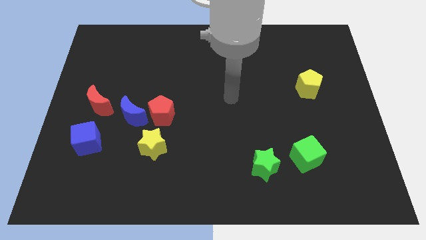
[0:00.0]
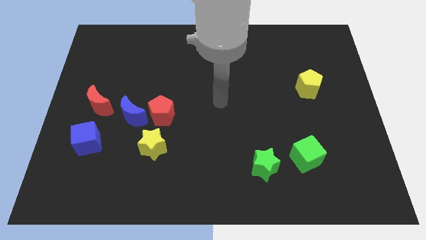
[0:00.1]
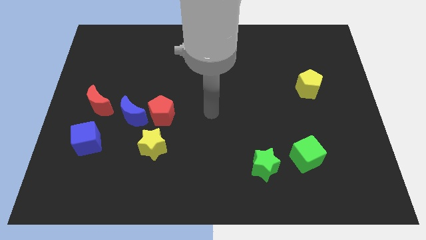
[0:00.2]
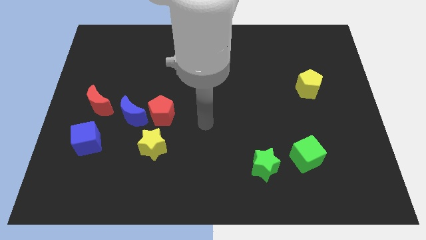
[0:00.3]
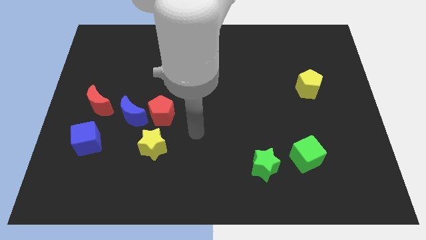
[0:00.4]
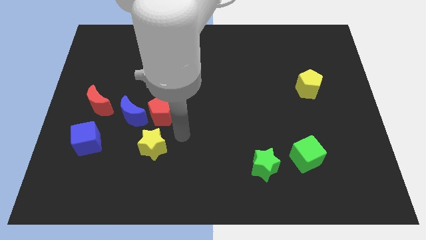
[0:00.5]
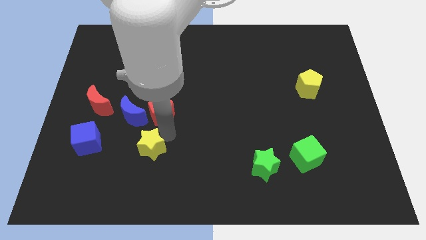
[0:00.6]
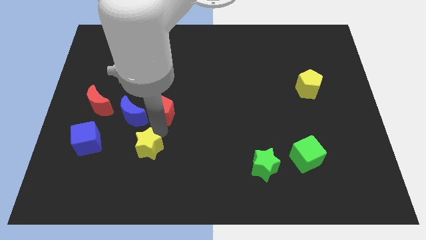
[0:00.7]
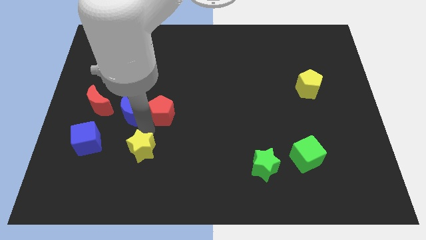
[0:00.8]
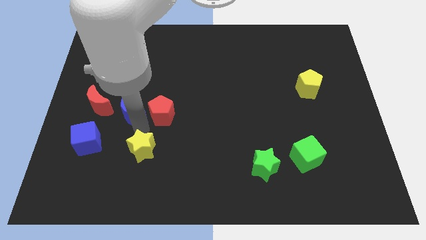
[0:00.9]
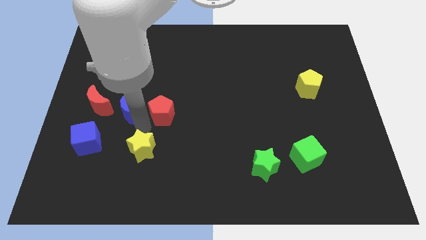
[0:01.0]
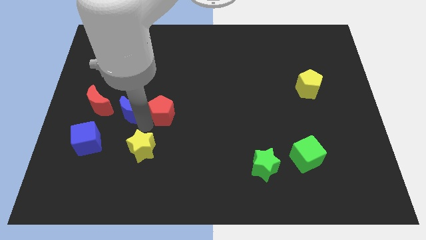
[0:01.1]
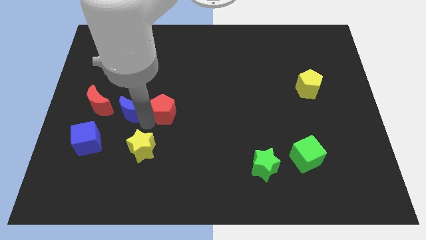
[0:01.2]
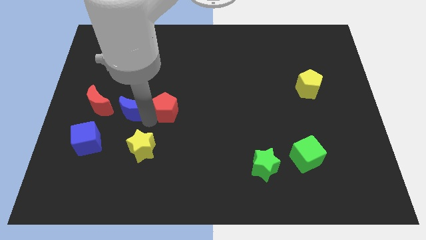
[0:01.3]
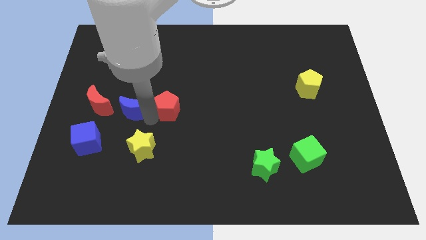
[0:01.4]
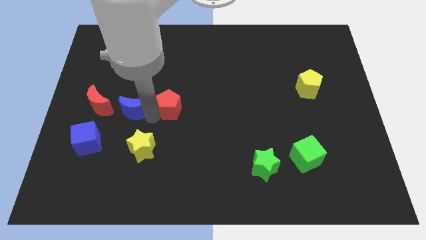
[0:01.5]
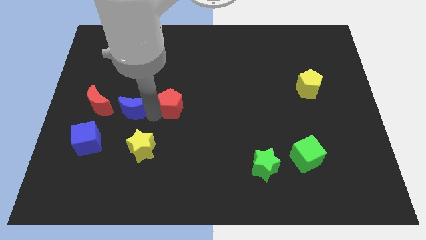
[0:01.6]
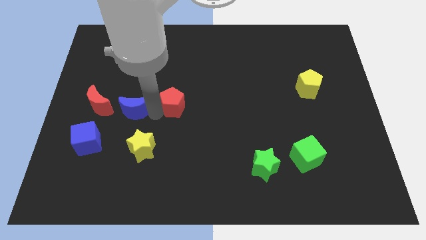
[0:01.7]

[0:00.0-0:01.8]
move the red pentagon away from the blue moon and yellow star

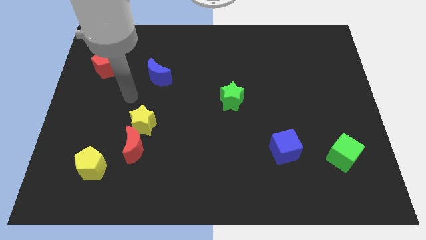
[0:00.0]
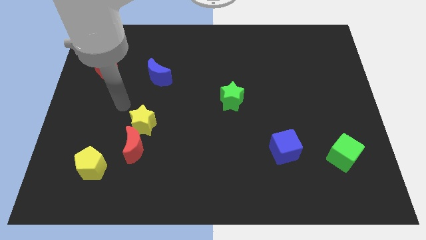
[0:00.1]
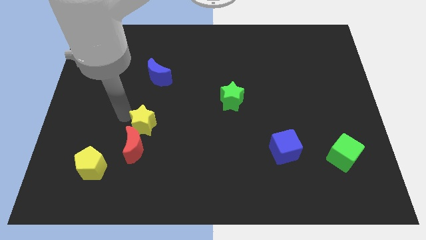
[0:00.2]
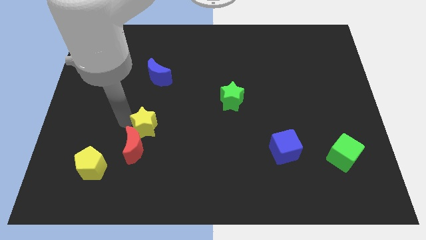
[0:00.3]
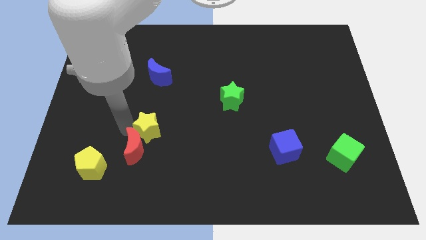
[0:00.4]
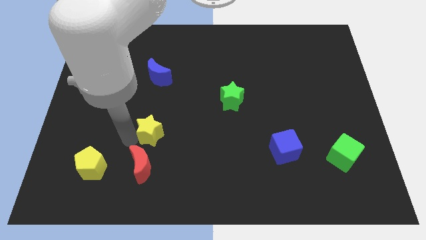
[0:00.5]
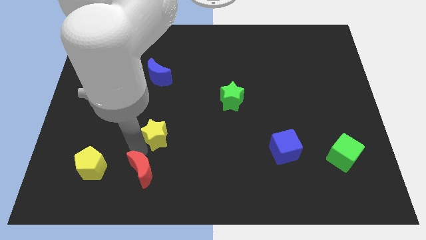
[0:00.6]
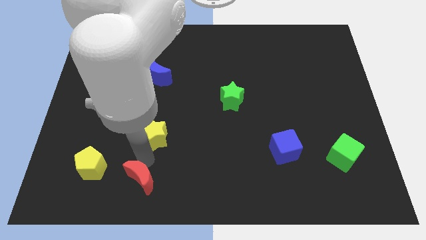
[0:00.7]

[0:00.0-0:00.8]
pull the yellow star apart from the red moon

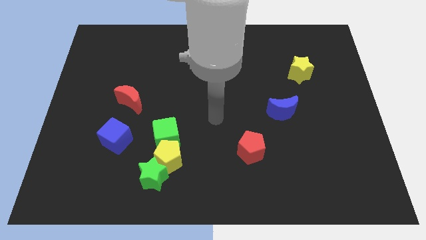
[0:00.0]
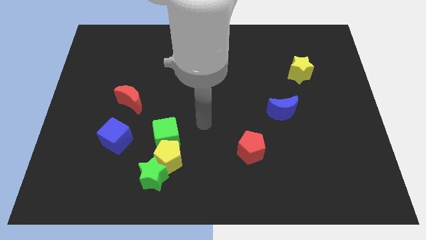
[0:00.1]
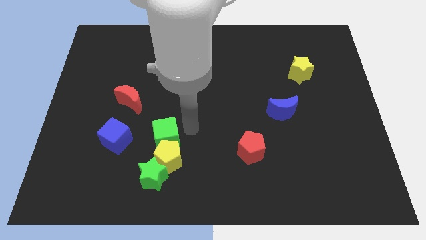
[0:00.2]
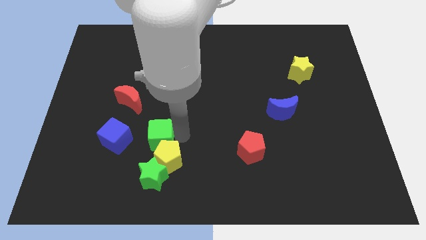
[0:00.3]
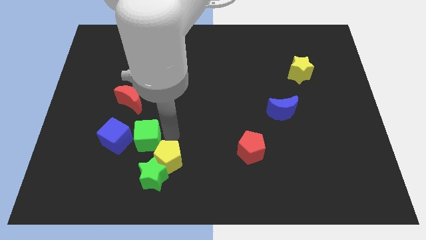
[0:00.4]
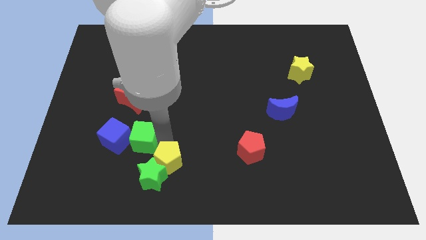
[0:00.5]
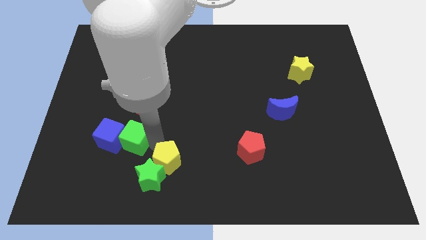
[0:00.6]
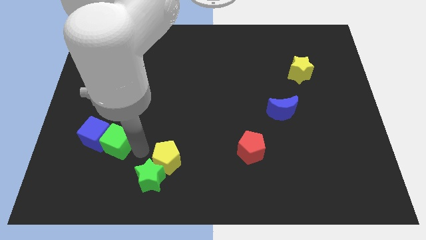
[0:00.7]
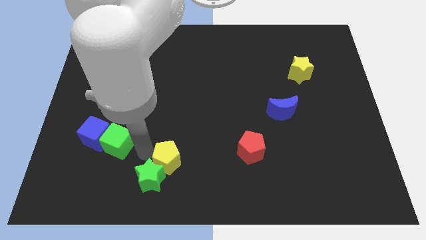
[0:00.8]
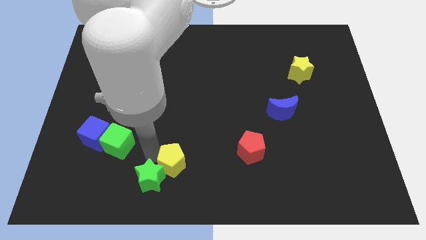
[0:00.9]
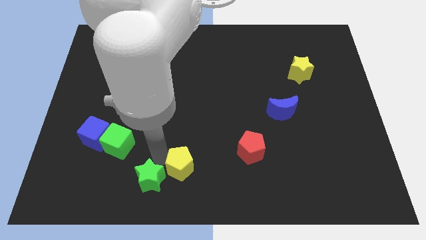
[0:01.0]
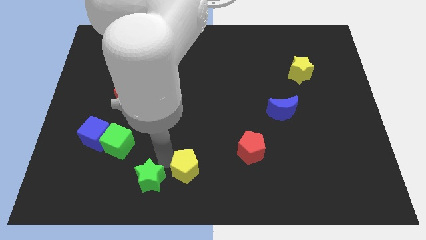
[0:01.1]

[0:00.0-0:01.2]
move the yellow pentagon away from the green star and green cube

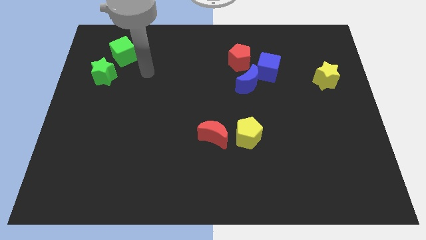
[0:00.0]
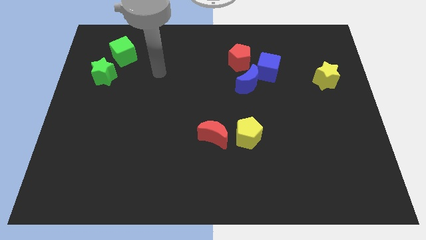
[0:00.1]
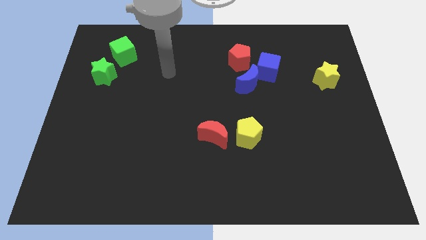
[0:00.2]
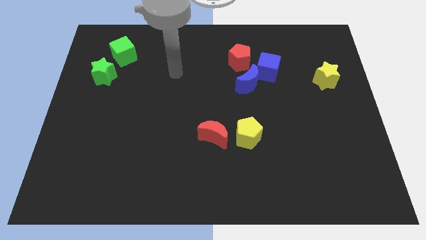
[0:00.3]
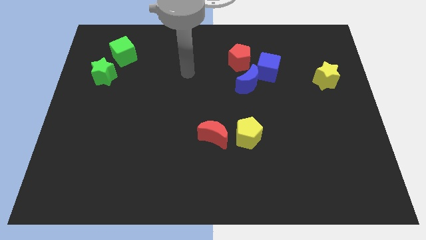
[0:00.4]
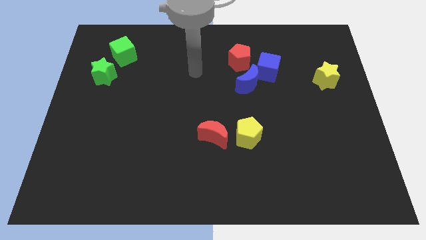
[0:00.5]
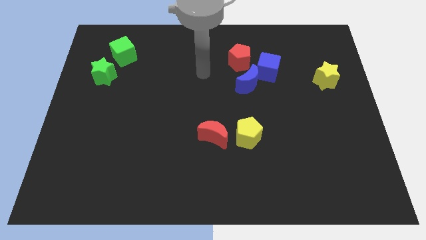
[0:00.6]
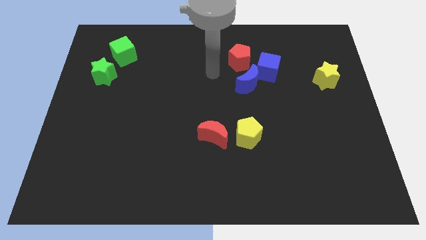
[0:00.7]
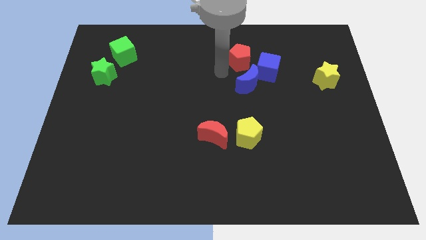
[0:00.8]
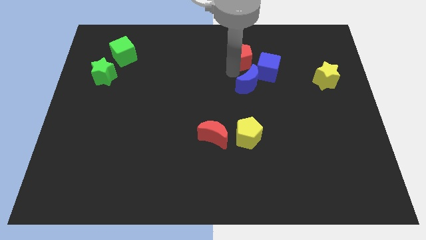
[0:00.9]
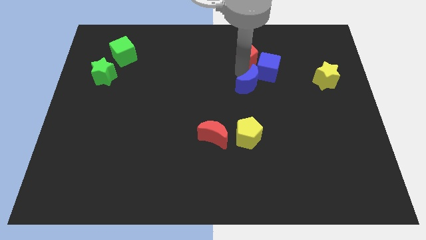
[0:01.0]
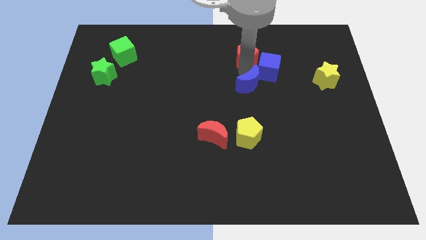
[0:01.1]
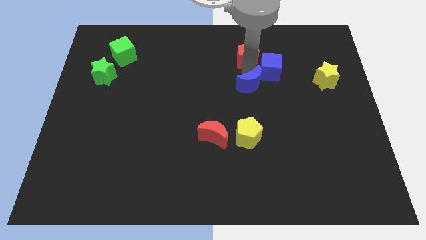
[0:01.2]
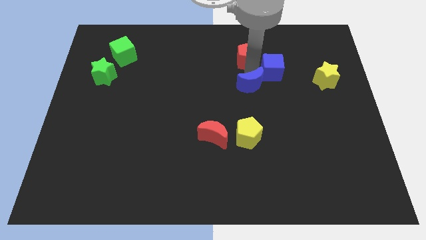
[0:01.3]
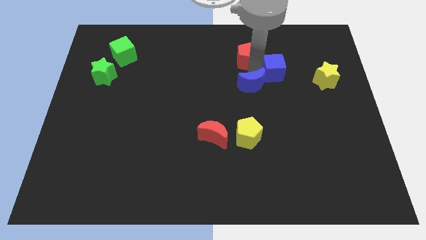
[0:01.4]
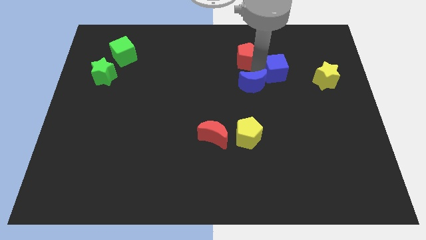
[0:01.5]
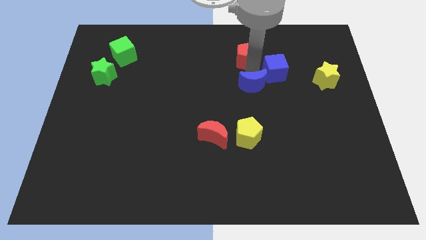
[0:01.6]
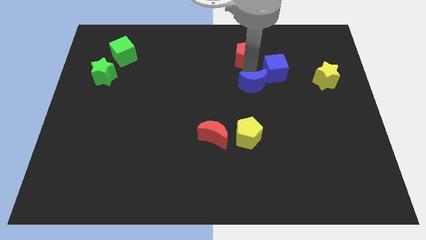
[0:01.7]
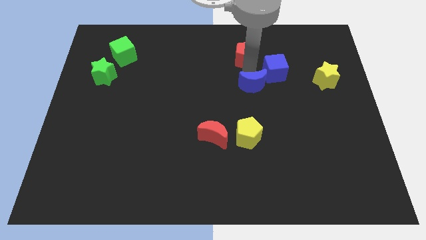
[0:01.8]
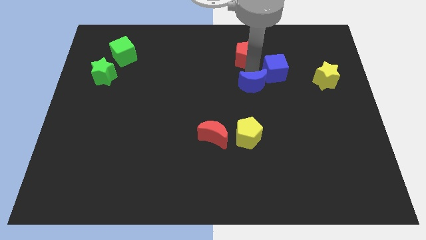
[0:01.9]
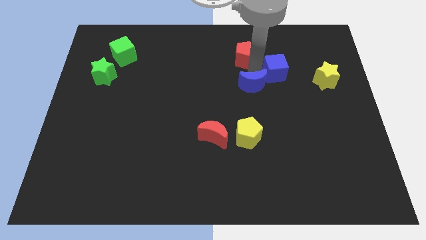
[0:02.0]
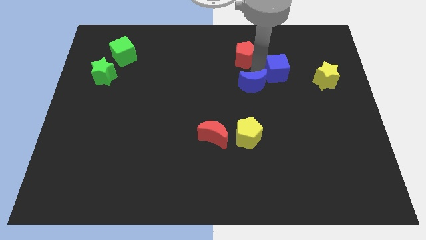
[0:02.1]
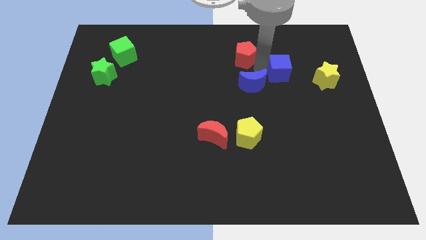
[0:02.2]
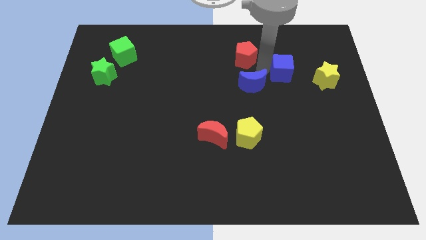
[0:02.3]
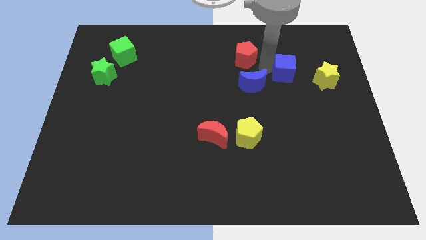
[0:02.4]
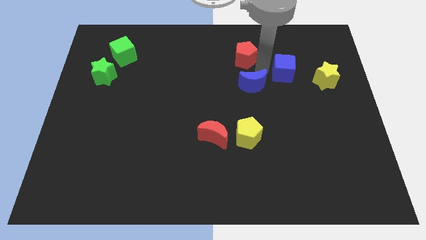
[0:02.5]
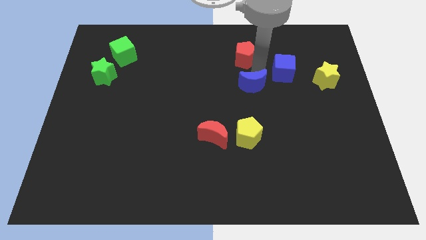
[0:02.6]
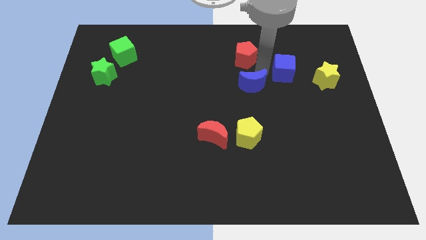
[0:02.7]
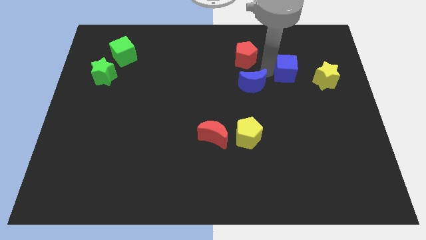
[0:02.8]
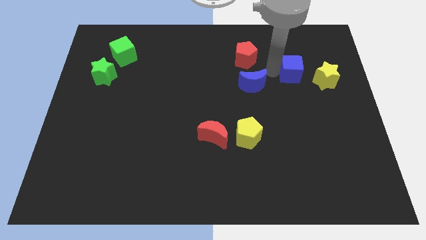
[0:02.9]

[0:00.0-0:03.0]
pull the blue cube apart from the blue moon and red pentagon

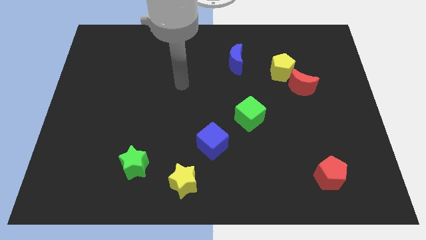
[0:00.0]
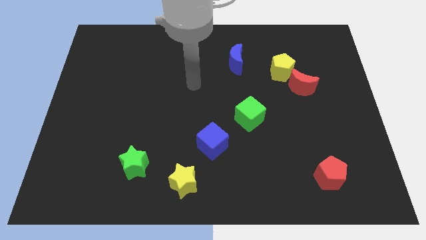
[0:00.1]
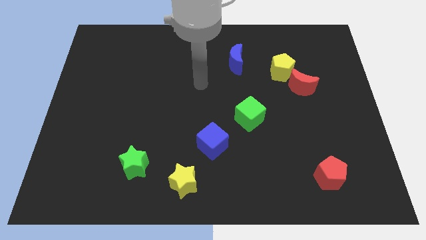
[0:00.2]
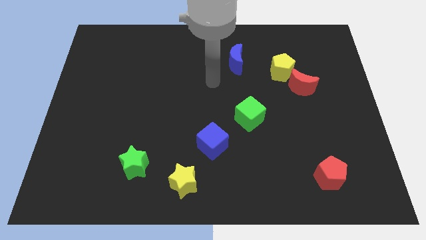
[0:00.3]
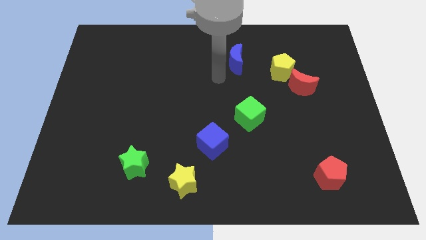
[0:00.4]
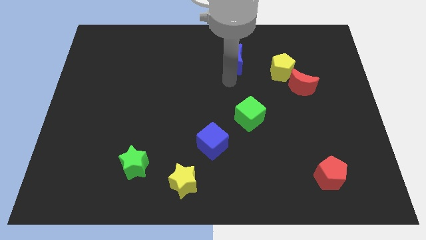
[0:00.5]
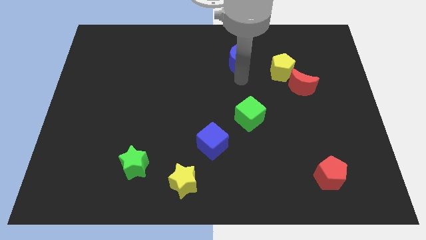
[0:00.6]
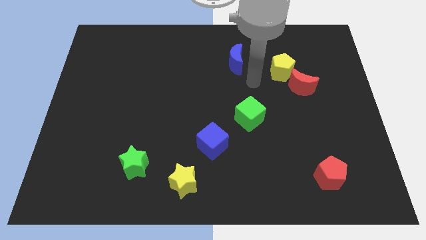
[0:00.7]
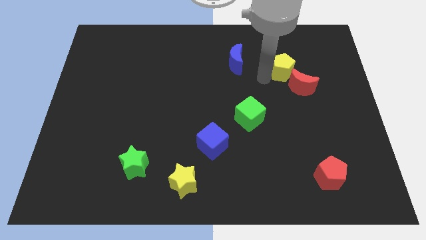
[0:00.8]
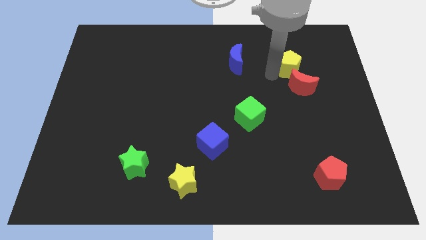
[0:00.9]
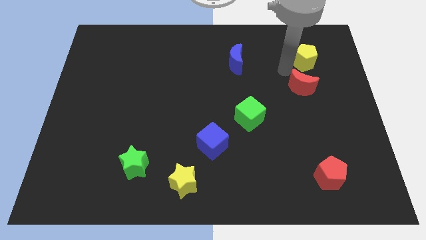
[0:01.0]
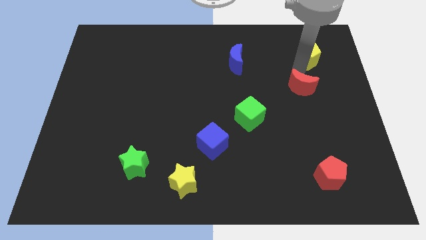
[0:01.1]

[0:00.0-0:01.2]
pull the red moon apart from the yellow pentagon

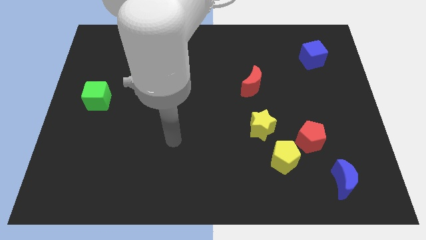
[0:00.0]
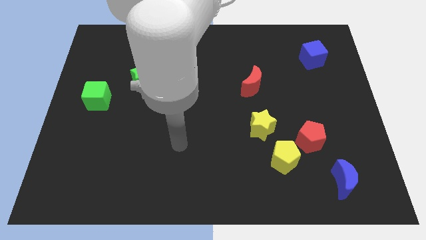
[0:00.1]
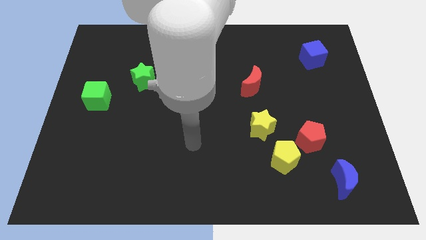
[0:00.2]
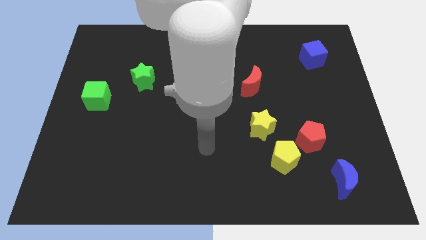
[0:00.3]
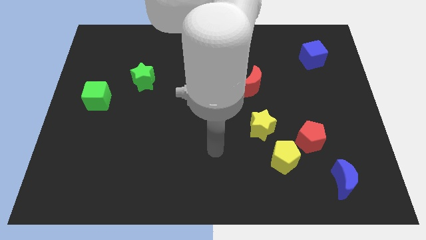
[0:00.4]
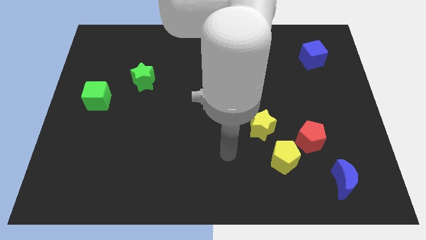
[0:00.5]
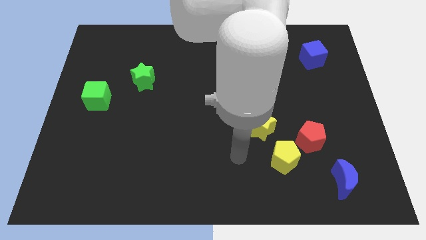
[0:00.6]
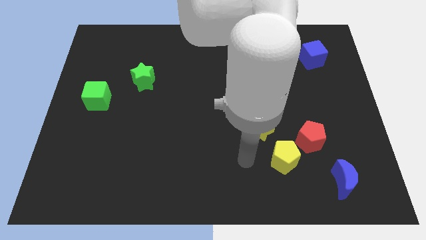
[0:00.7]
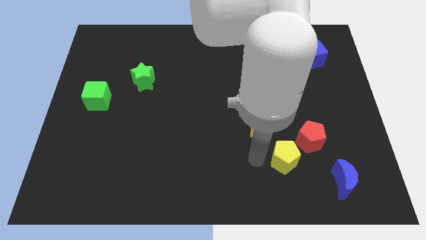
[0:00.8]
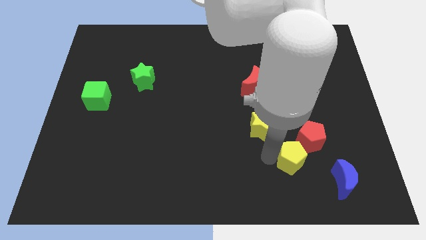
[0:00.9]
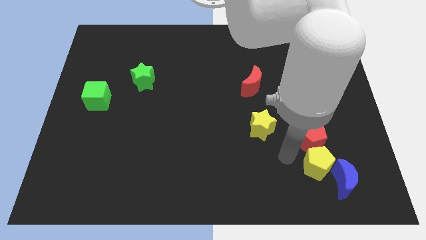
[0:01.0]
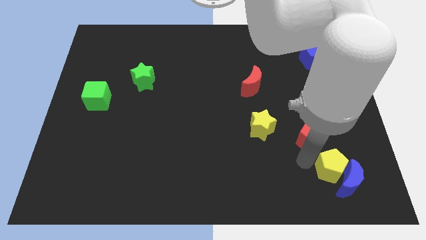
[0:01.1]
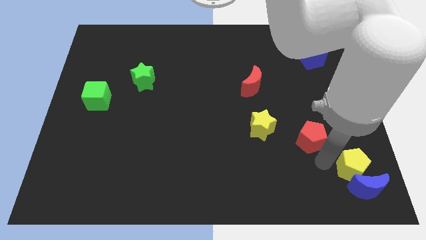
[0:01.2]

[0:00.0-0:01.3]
move the red pentagon away from the yellow pentagon

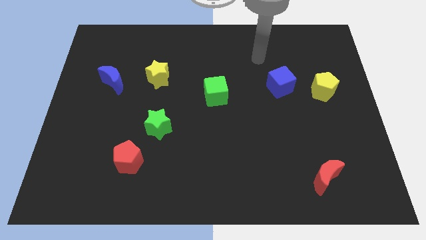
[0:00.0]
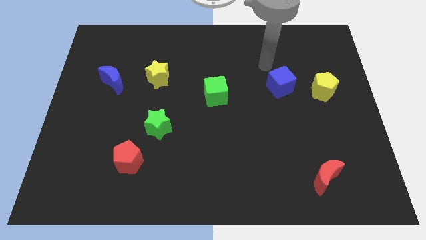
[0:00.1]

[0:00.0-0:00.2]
move the blue cube away from the yellow pentagon
